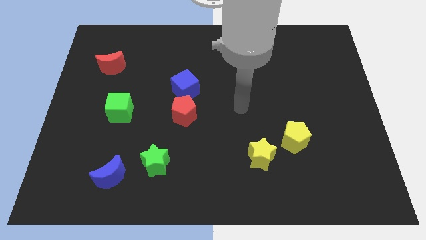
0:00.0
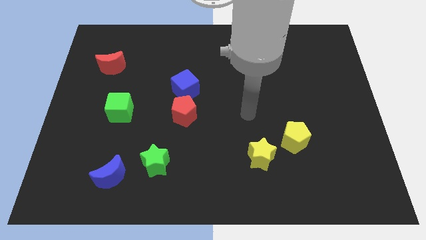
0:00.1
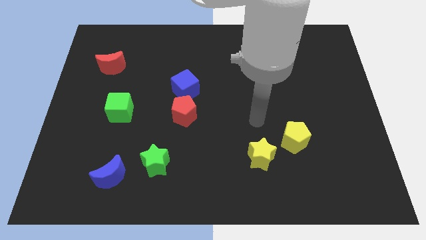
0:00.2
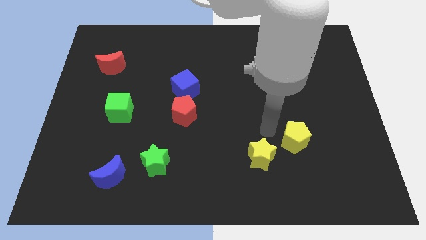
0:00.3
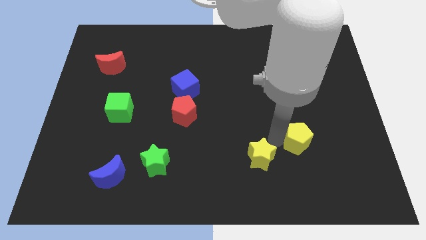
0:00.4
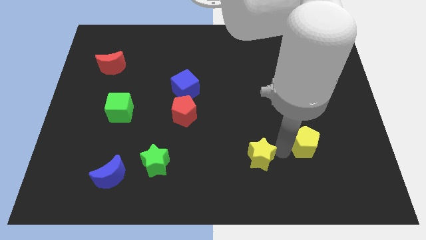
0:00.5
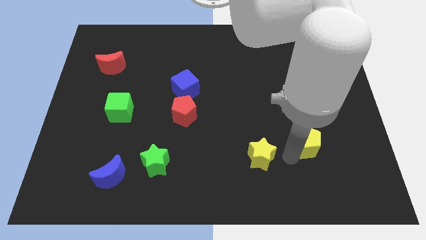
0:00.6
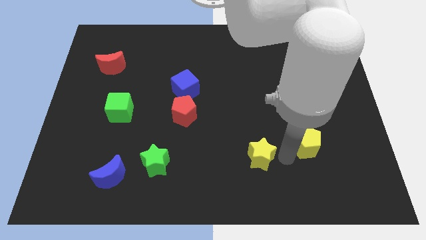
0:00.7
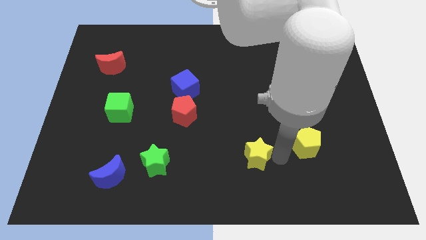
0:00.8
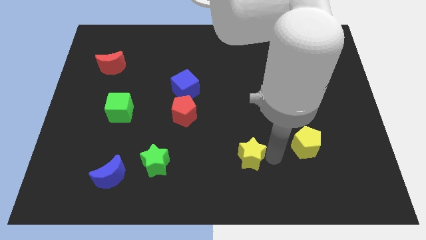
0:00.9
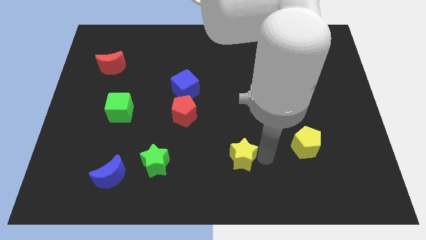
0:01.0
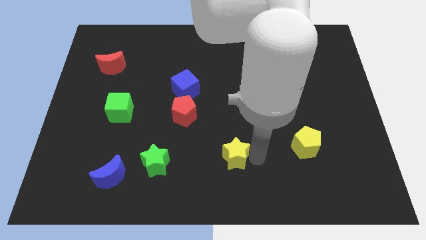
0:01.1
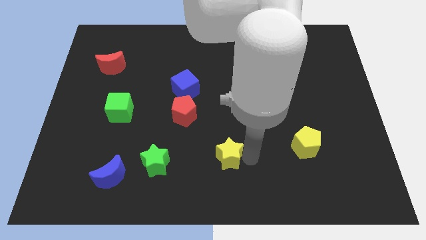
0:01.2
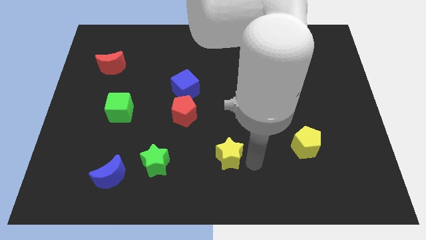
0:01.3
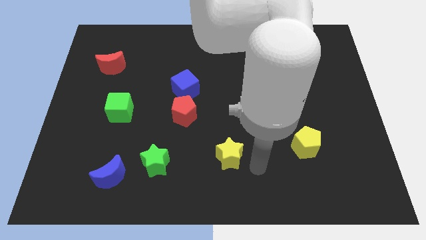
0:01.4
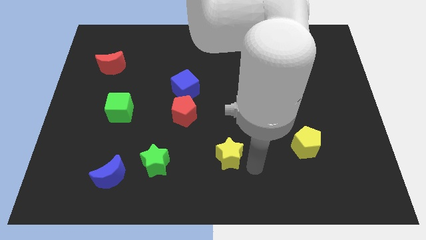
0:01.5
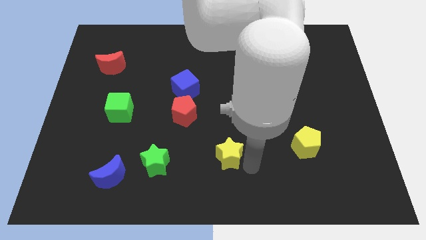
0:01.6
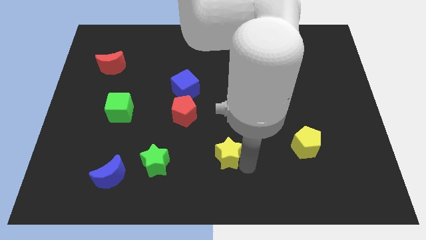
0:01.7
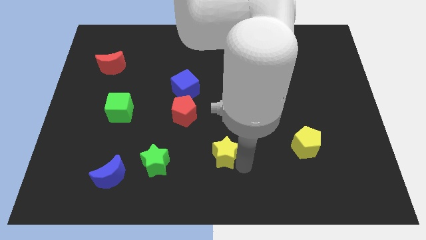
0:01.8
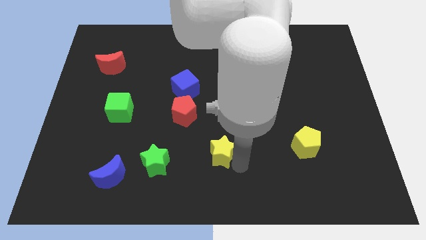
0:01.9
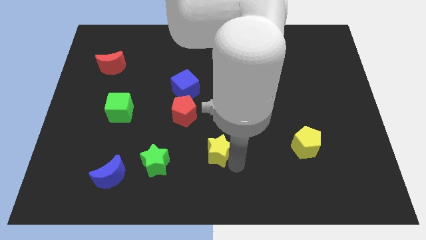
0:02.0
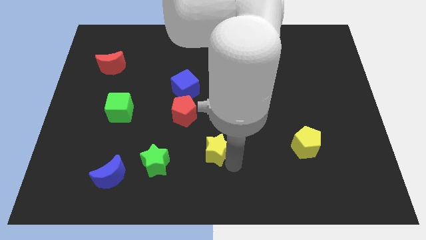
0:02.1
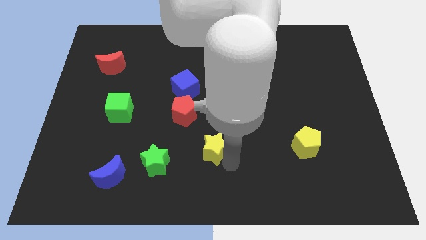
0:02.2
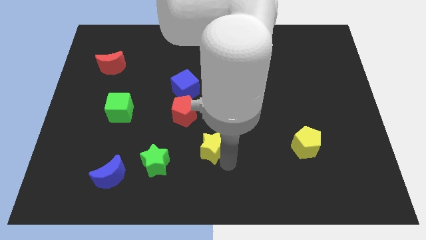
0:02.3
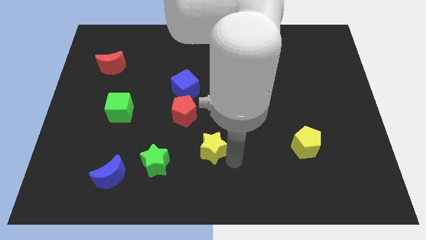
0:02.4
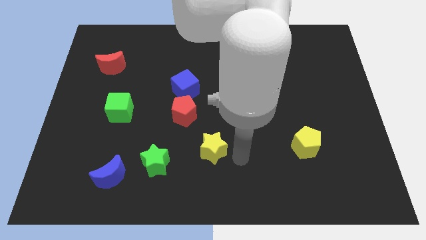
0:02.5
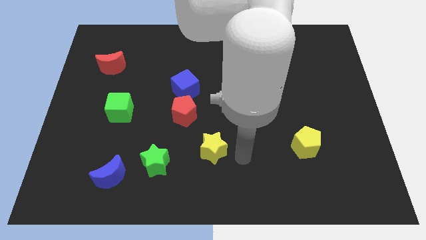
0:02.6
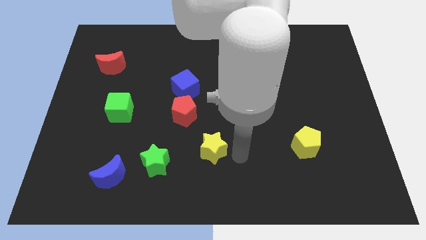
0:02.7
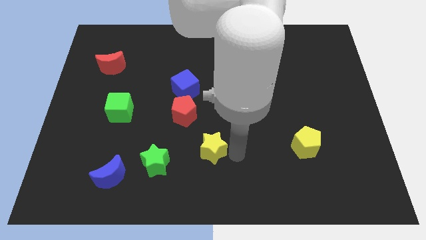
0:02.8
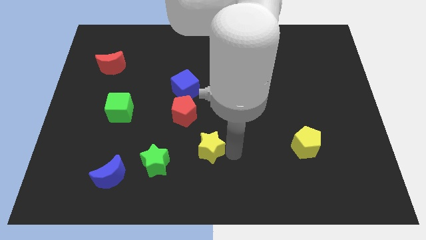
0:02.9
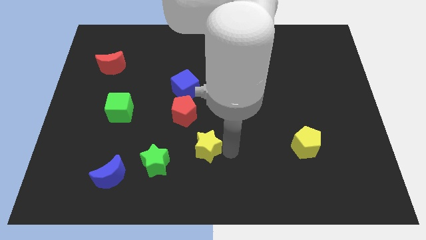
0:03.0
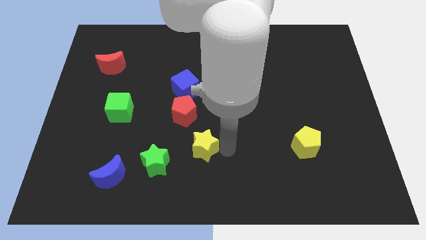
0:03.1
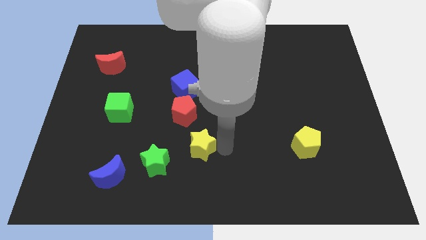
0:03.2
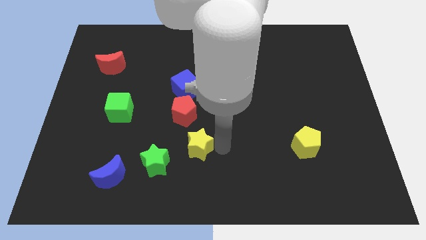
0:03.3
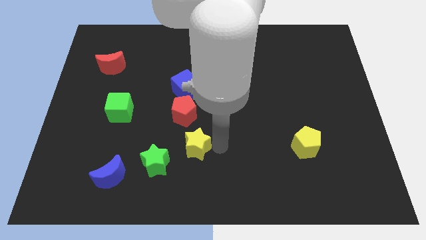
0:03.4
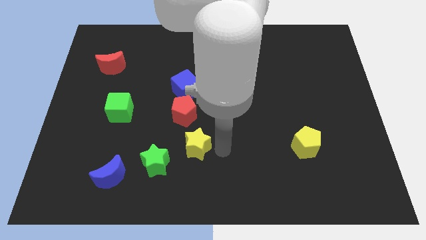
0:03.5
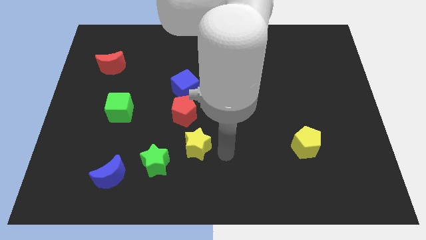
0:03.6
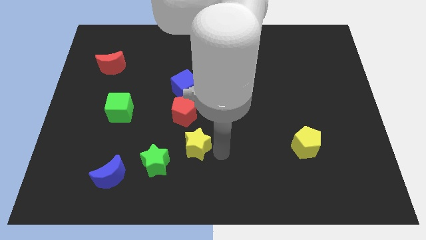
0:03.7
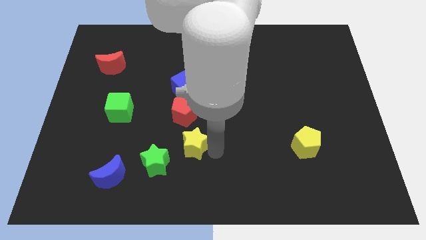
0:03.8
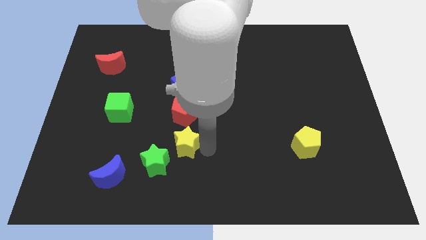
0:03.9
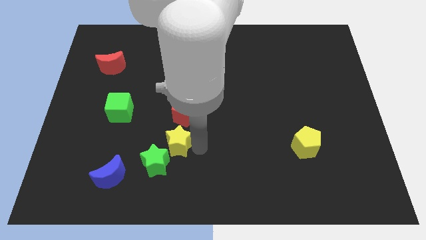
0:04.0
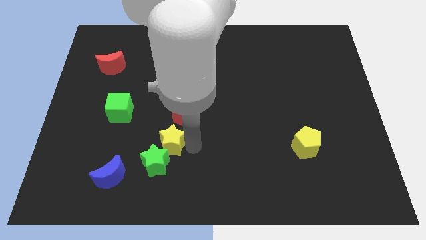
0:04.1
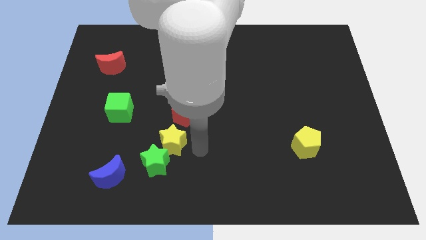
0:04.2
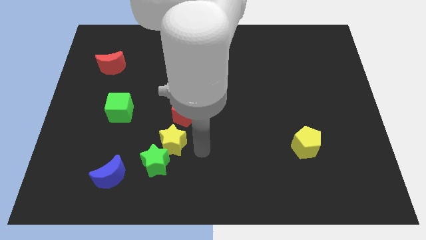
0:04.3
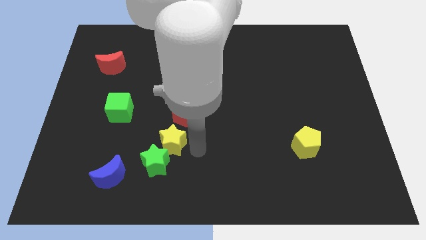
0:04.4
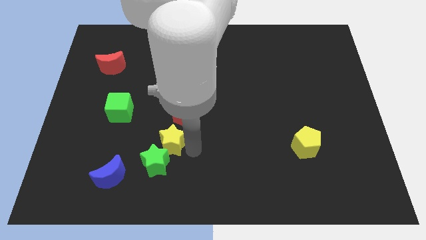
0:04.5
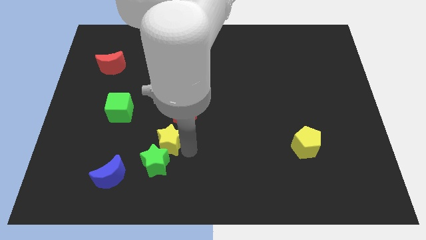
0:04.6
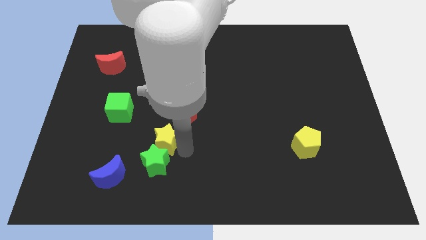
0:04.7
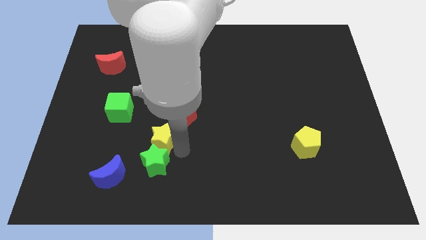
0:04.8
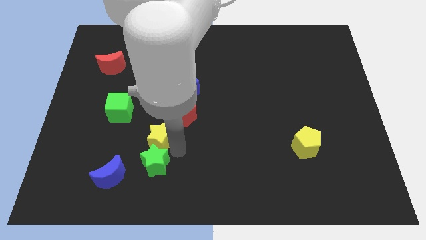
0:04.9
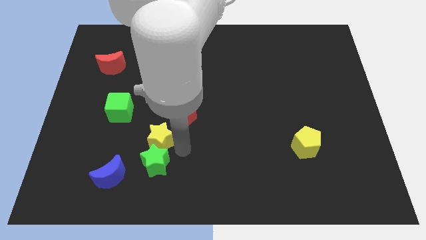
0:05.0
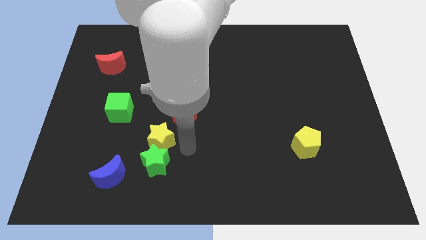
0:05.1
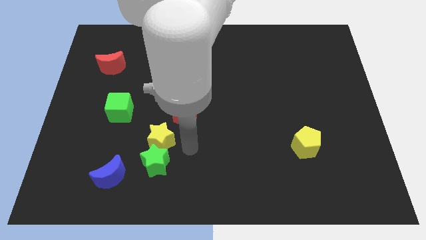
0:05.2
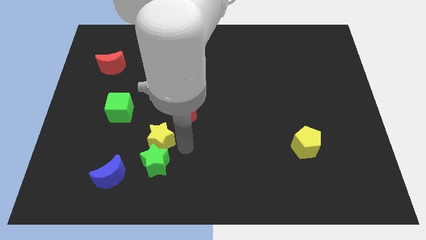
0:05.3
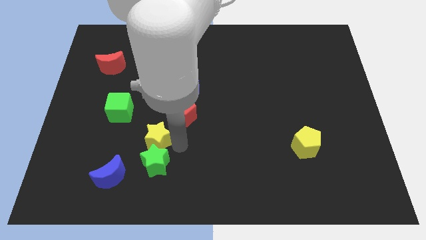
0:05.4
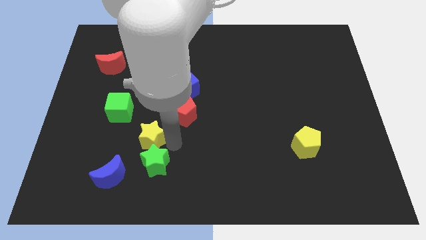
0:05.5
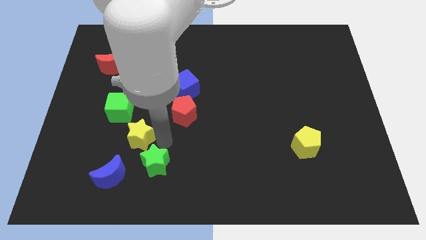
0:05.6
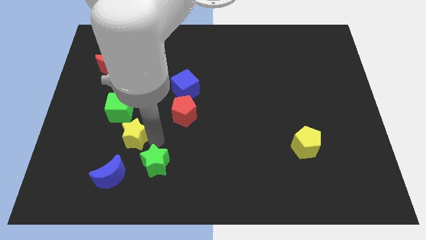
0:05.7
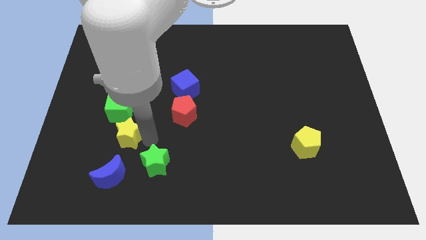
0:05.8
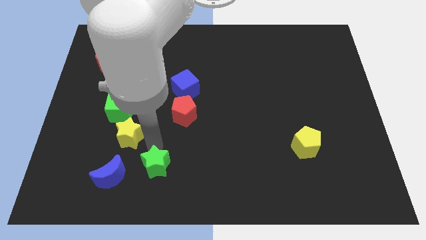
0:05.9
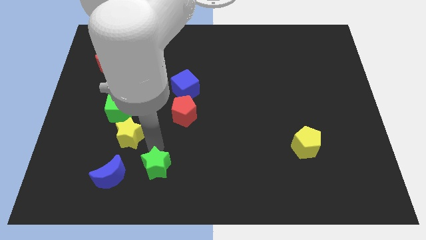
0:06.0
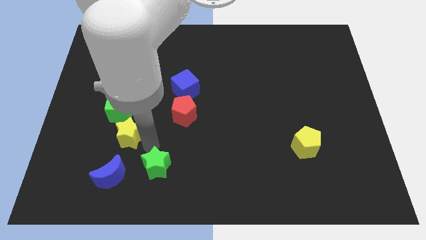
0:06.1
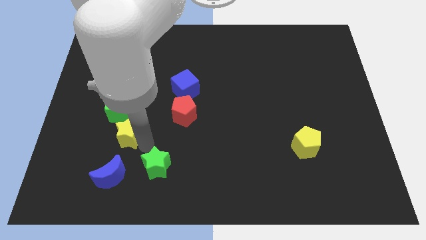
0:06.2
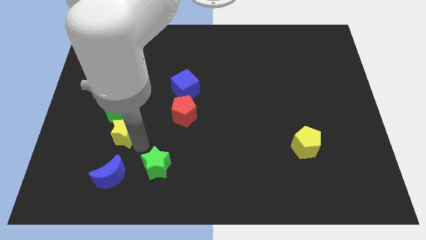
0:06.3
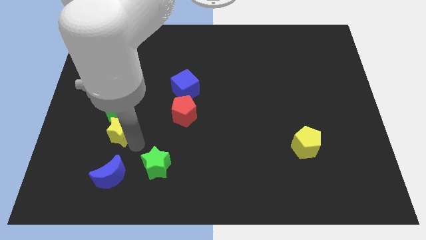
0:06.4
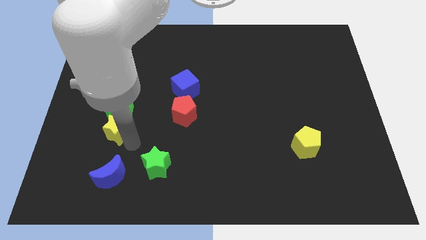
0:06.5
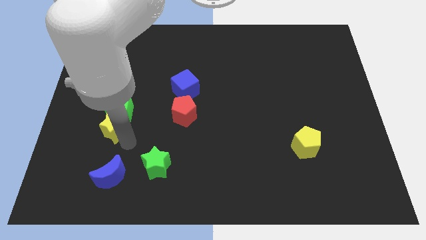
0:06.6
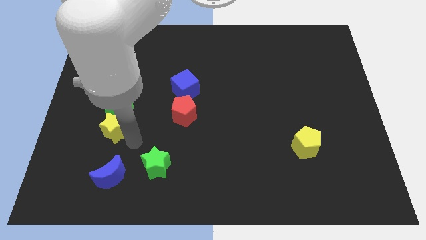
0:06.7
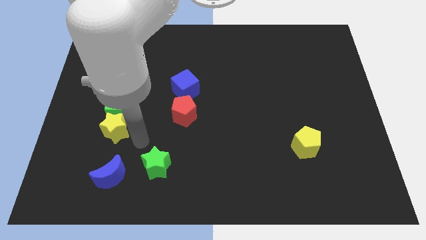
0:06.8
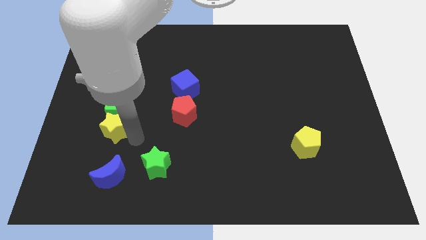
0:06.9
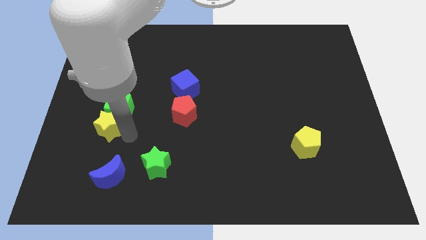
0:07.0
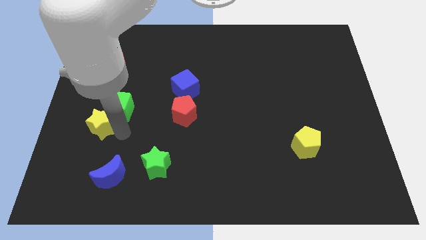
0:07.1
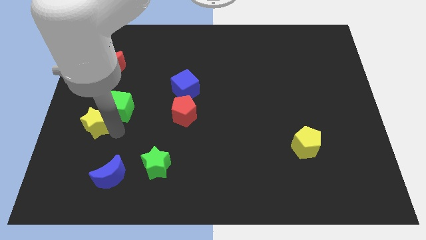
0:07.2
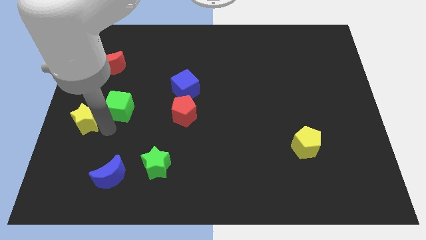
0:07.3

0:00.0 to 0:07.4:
move the yellow star to the center left
